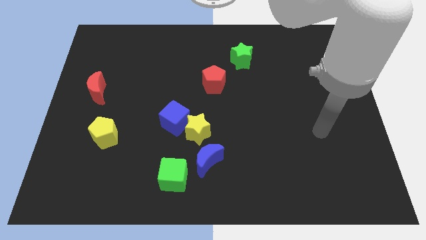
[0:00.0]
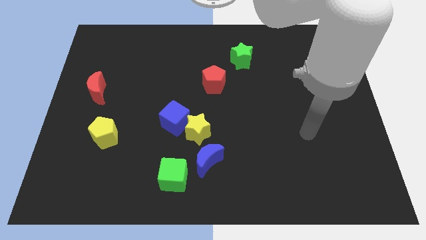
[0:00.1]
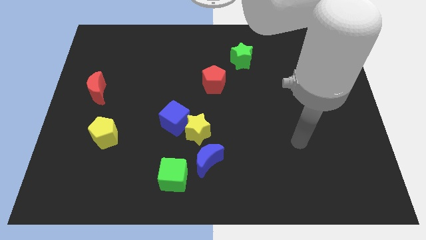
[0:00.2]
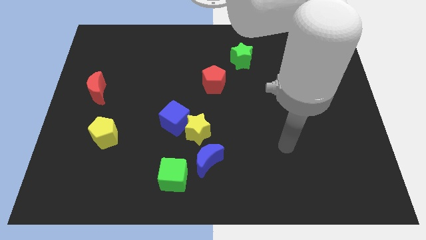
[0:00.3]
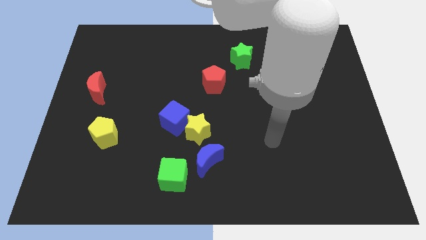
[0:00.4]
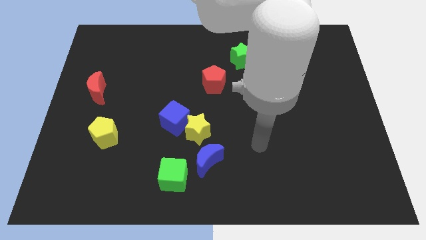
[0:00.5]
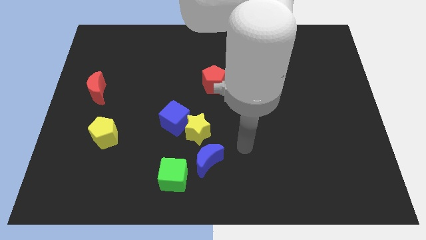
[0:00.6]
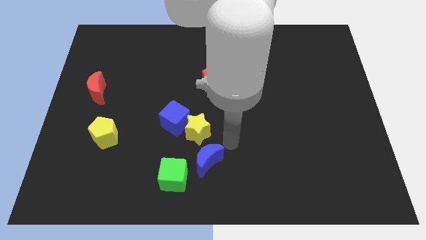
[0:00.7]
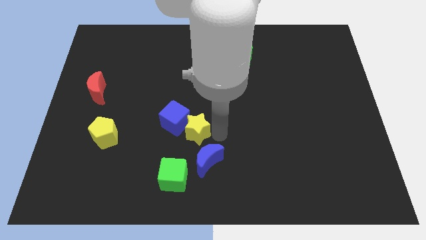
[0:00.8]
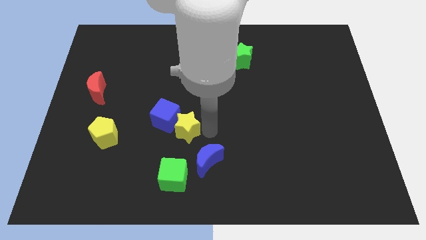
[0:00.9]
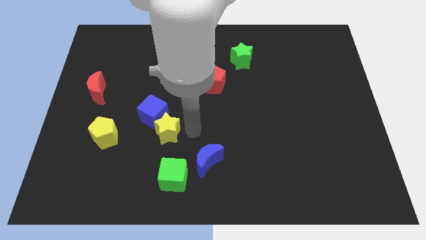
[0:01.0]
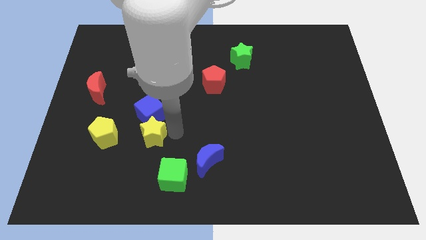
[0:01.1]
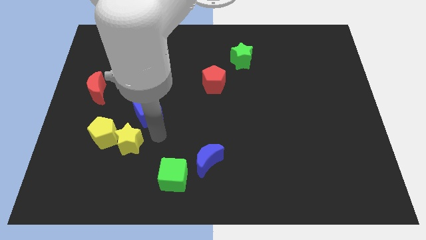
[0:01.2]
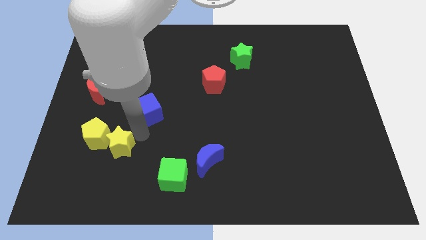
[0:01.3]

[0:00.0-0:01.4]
pull the blue cube apart from the yellow star

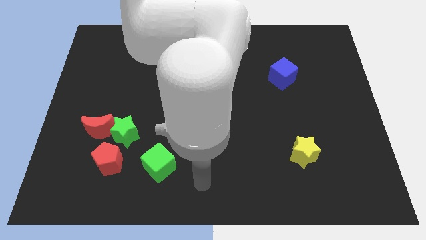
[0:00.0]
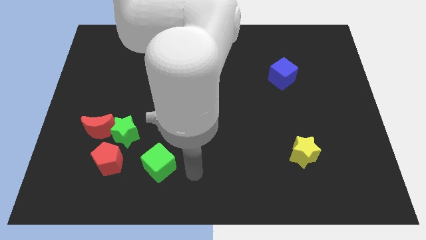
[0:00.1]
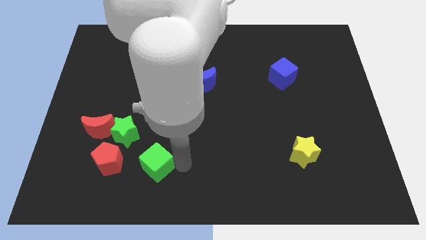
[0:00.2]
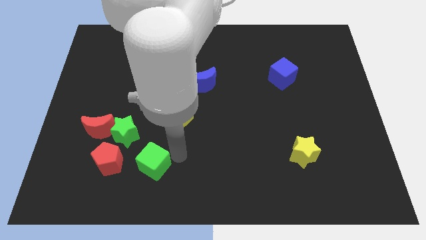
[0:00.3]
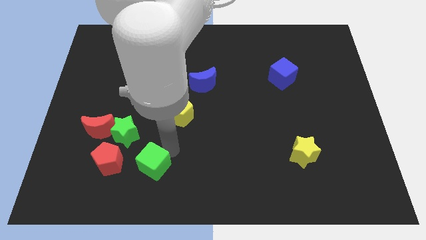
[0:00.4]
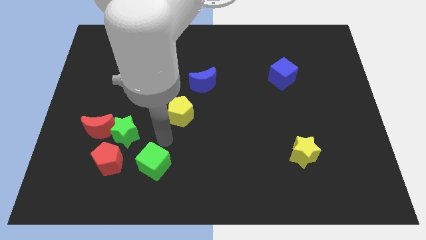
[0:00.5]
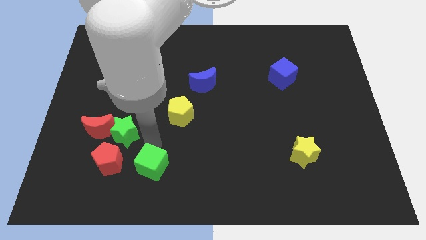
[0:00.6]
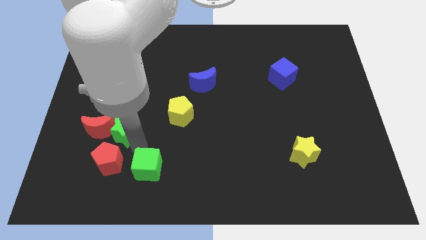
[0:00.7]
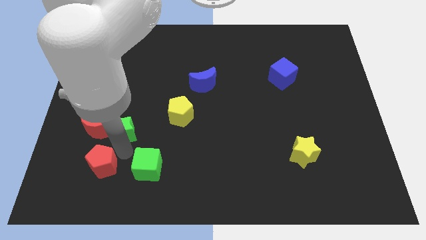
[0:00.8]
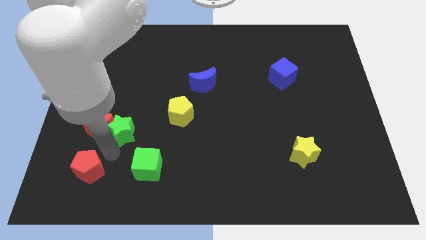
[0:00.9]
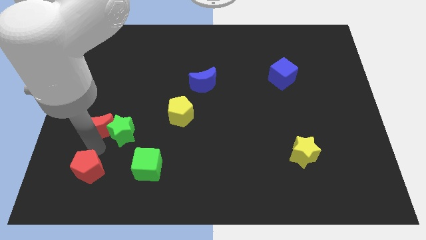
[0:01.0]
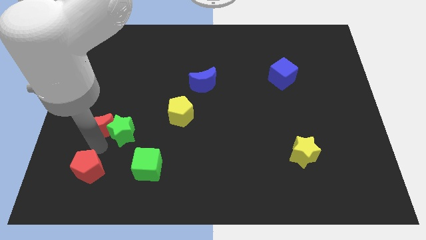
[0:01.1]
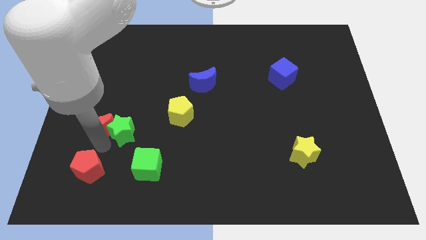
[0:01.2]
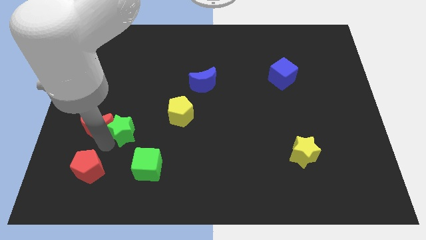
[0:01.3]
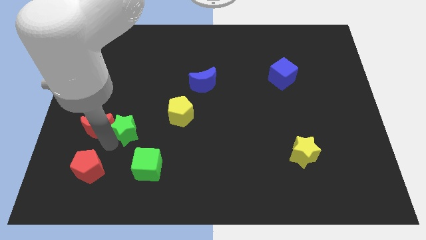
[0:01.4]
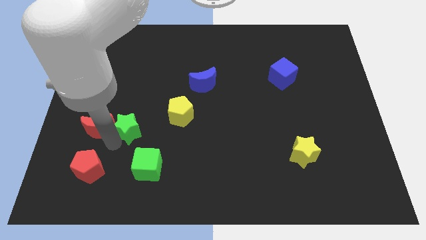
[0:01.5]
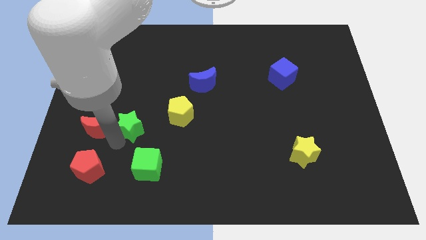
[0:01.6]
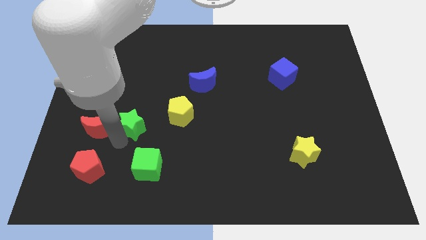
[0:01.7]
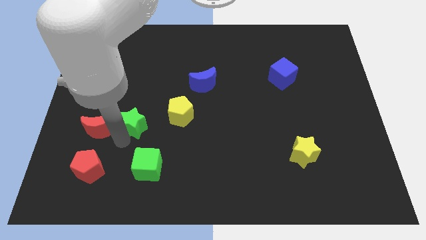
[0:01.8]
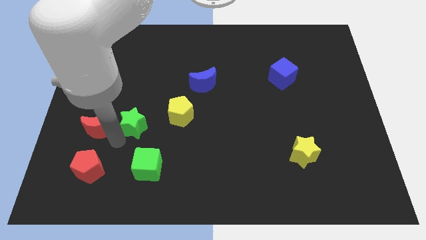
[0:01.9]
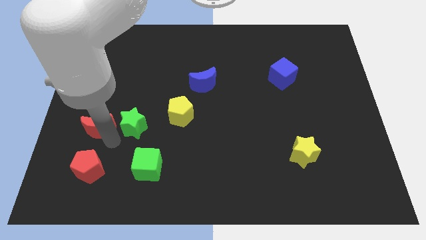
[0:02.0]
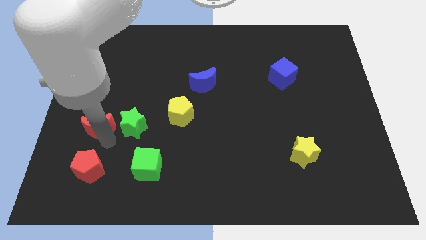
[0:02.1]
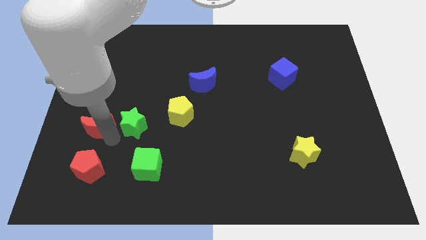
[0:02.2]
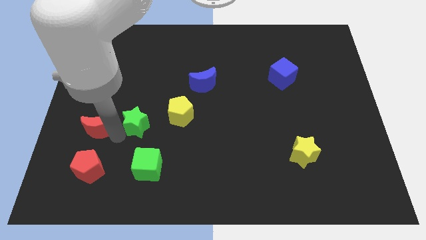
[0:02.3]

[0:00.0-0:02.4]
pull the green star apart from the red moon and red pentagon

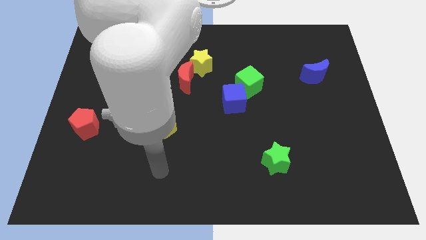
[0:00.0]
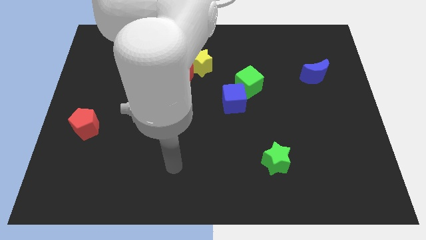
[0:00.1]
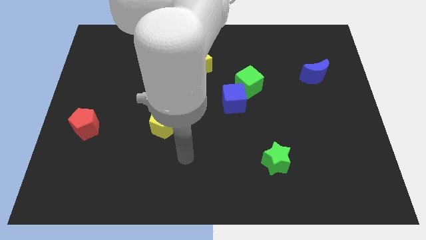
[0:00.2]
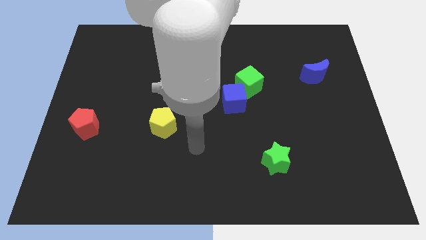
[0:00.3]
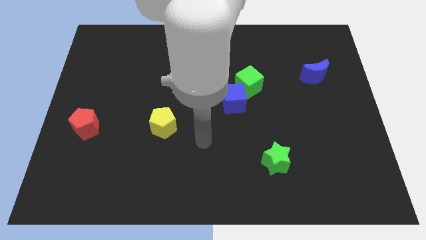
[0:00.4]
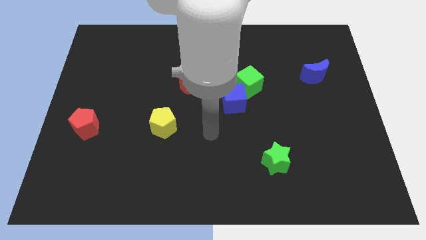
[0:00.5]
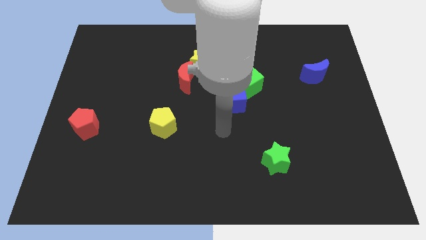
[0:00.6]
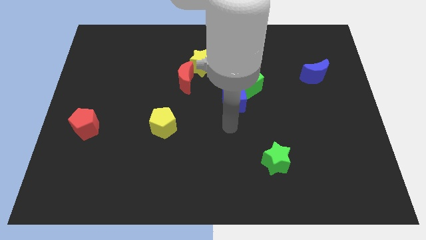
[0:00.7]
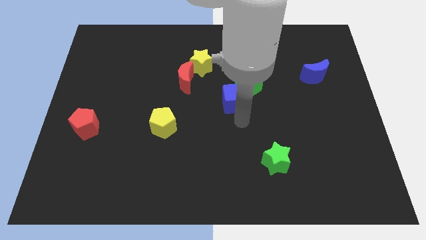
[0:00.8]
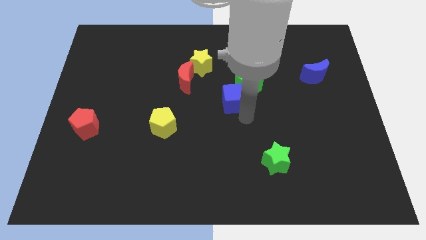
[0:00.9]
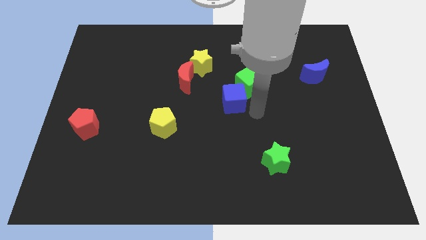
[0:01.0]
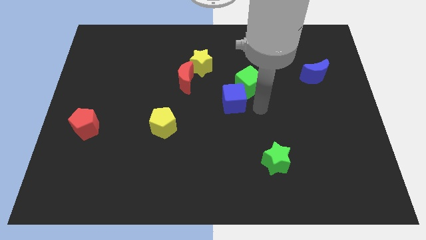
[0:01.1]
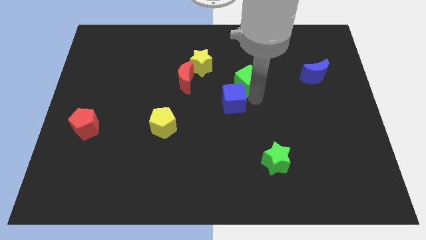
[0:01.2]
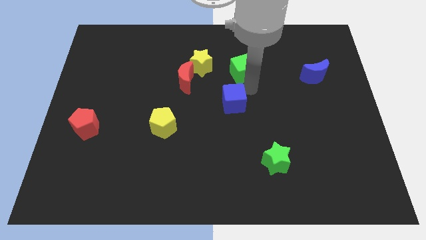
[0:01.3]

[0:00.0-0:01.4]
pull the blue cube apart from the green cube

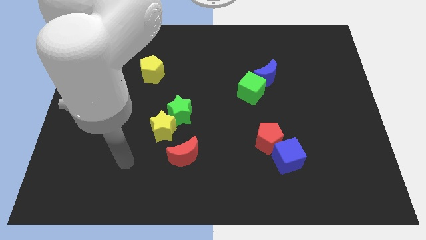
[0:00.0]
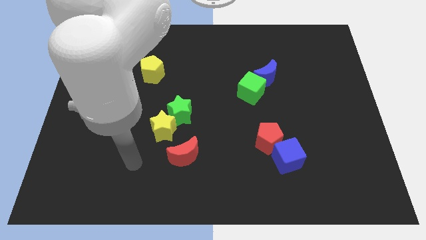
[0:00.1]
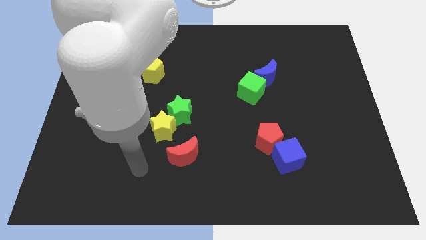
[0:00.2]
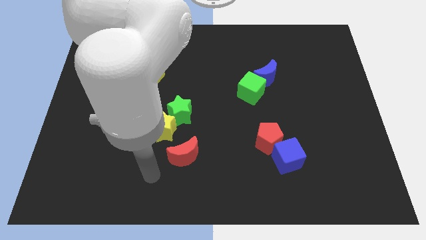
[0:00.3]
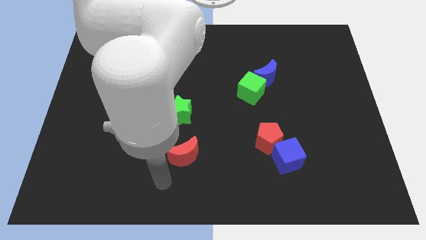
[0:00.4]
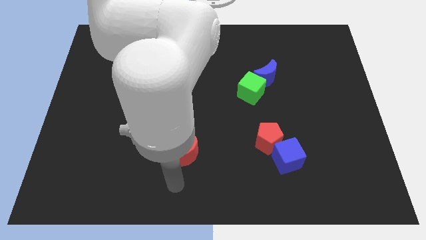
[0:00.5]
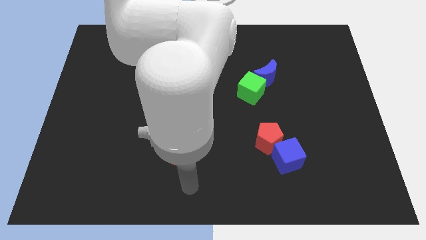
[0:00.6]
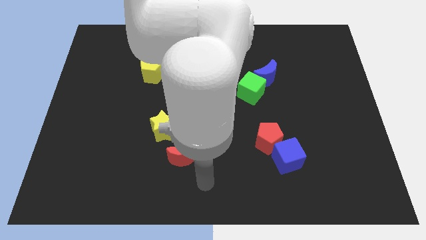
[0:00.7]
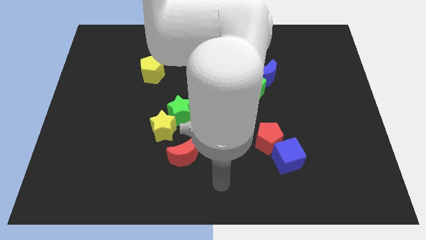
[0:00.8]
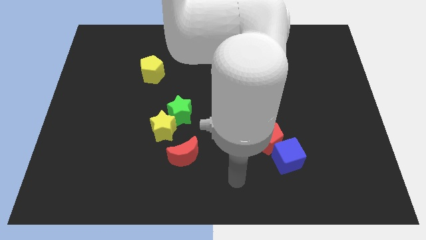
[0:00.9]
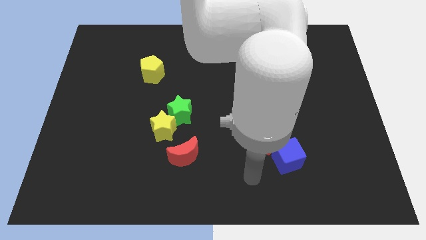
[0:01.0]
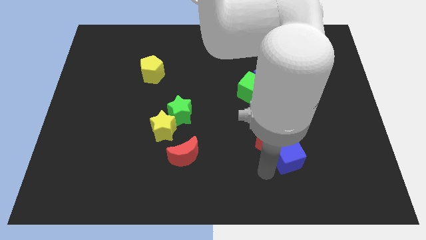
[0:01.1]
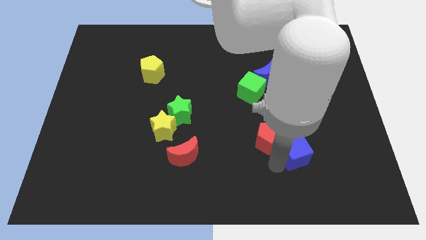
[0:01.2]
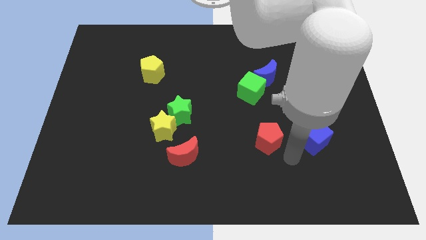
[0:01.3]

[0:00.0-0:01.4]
pull the red pentagon apart from the blue cube

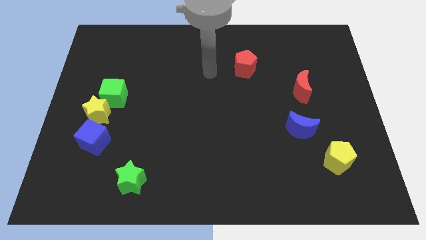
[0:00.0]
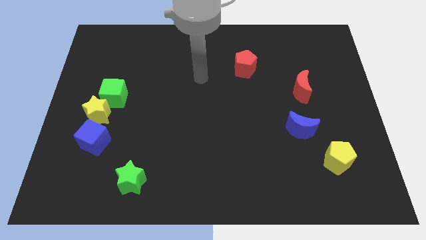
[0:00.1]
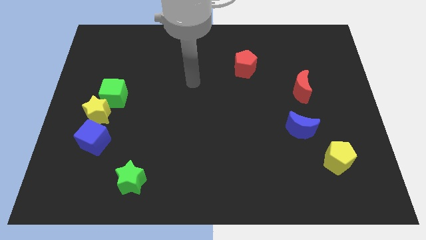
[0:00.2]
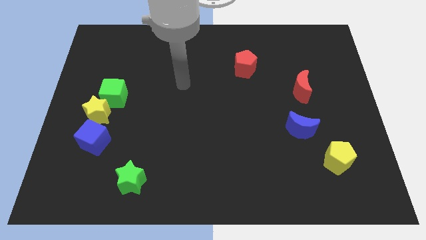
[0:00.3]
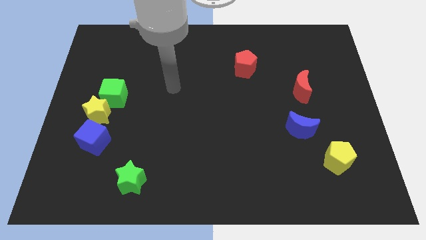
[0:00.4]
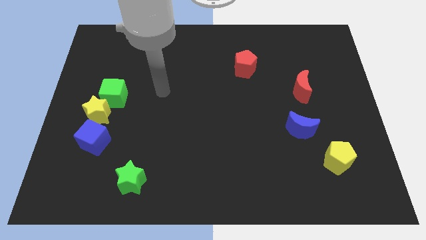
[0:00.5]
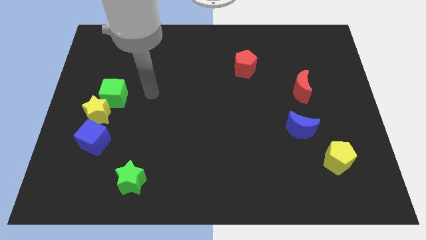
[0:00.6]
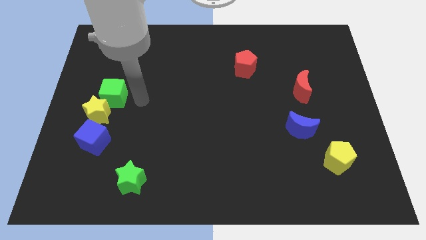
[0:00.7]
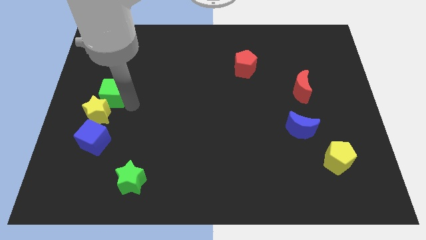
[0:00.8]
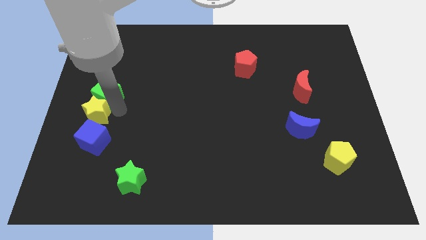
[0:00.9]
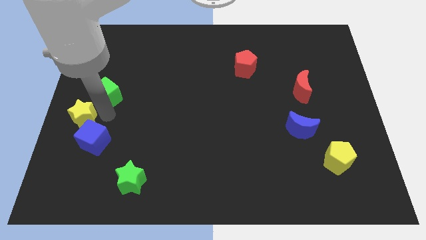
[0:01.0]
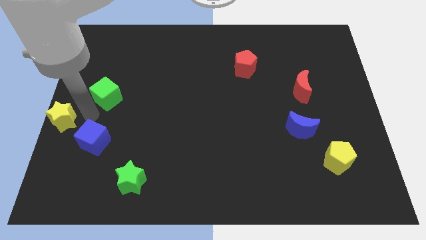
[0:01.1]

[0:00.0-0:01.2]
pull the green cube apart from the yellow star

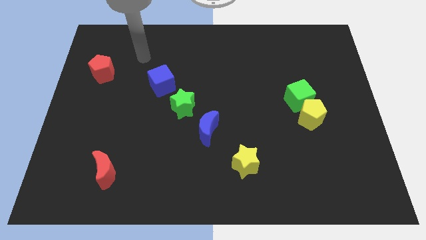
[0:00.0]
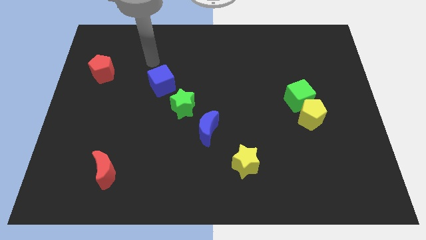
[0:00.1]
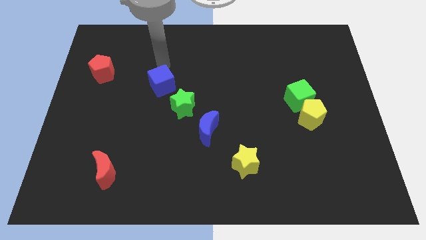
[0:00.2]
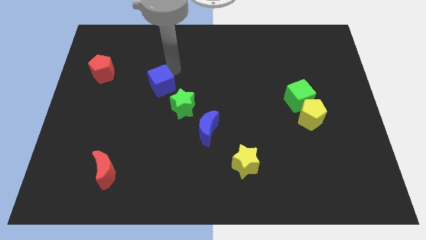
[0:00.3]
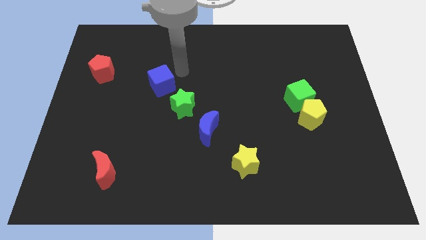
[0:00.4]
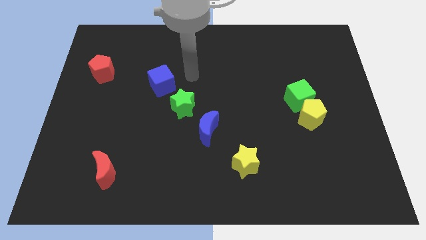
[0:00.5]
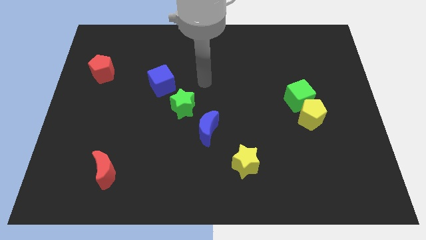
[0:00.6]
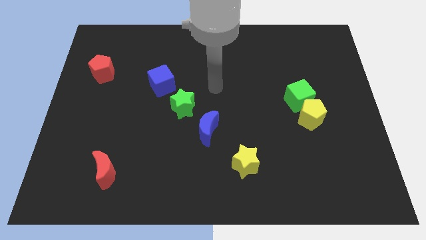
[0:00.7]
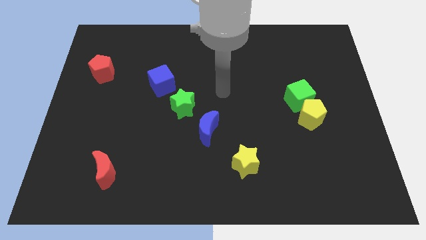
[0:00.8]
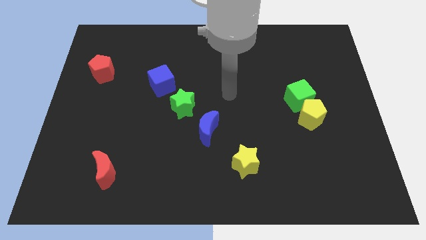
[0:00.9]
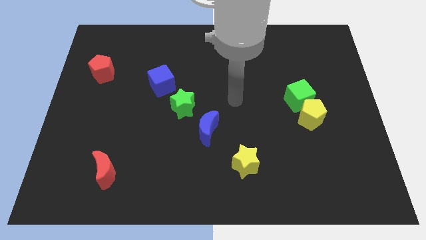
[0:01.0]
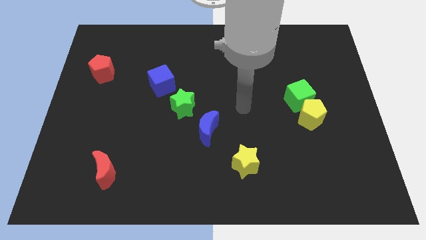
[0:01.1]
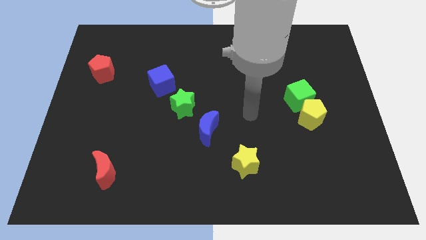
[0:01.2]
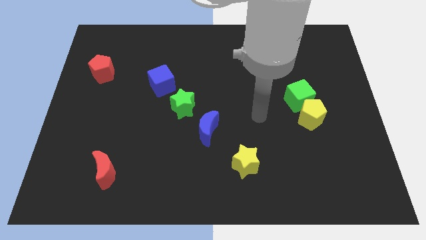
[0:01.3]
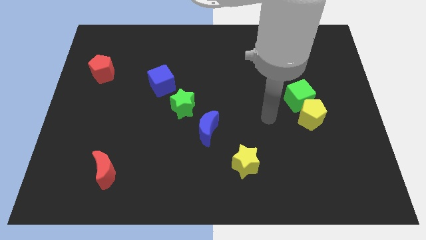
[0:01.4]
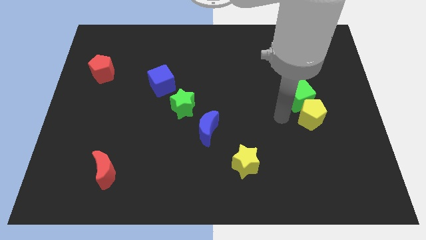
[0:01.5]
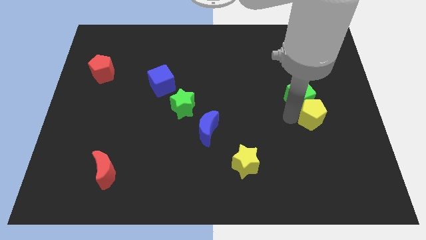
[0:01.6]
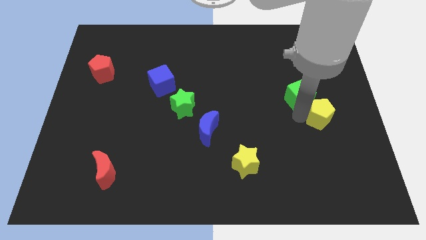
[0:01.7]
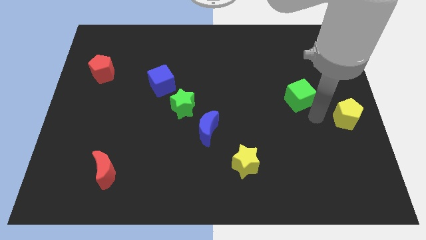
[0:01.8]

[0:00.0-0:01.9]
pull the green cube apart from the yellow pentagon
